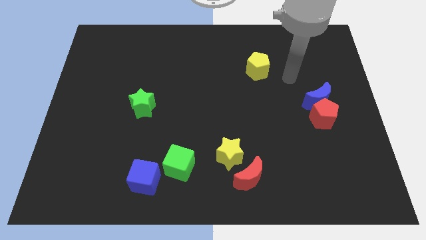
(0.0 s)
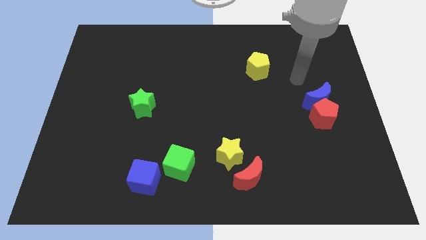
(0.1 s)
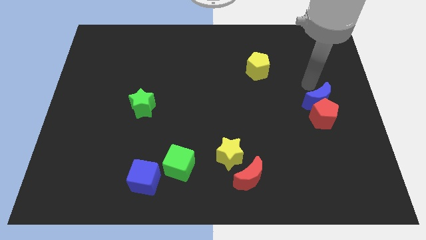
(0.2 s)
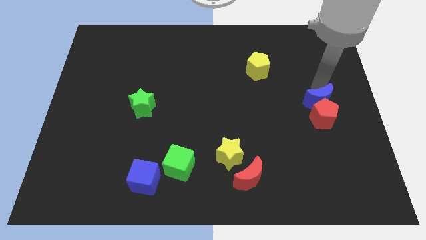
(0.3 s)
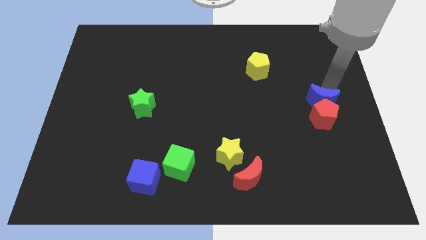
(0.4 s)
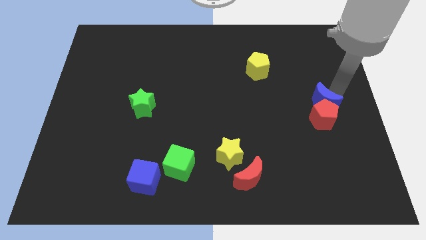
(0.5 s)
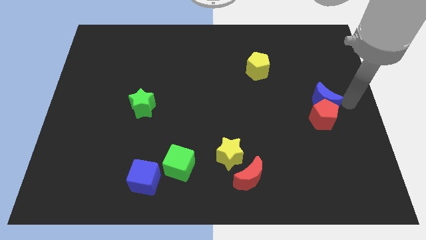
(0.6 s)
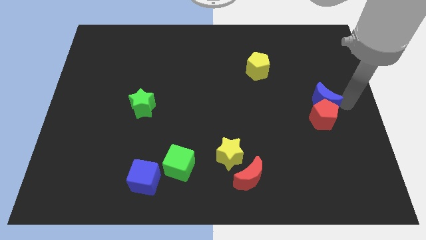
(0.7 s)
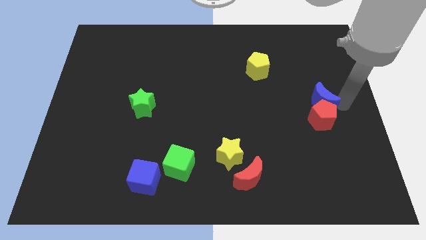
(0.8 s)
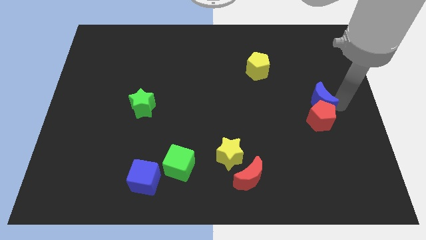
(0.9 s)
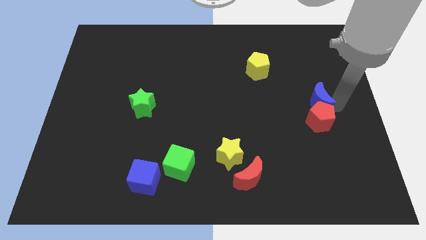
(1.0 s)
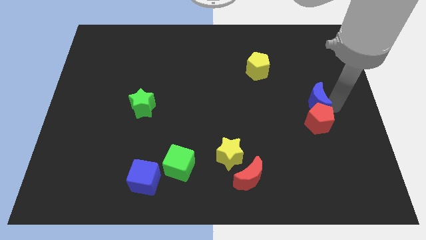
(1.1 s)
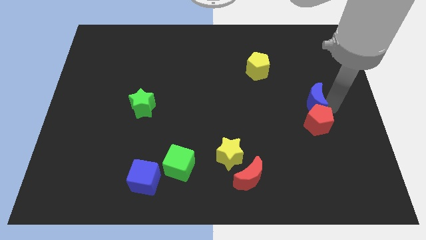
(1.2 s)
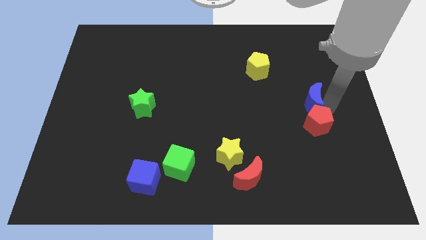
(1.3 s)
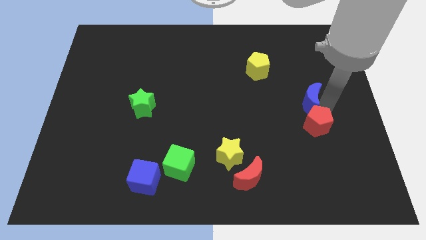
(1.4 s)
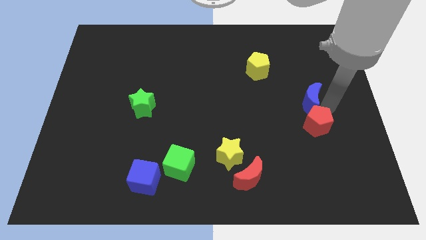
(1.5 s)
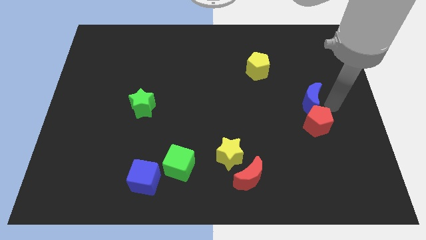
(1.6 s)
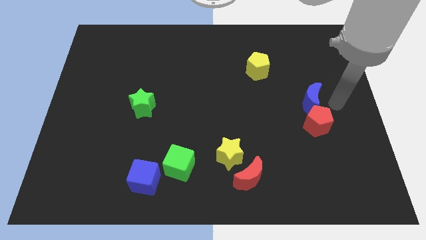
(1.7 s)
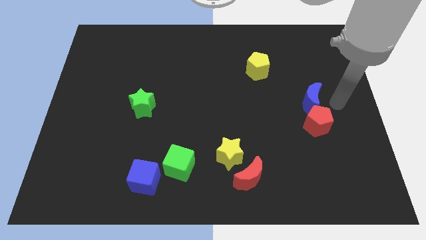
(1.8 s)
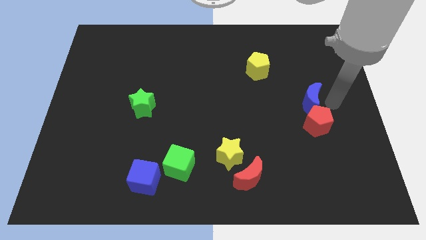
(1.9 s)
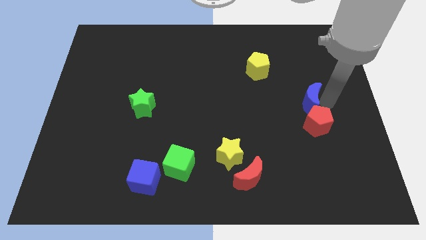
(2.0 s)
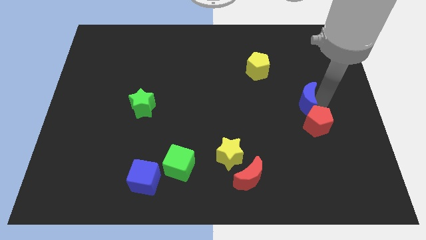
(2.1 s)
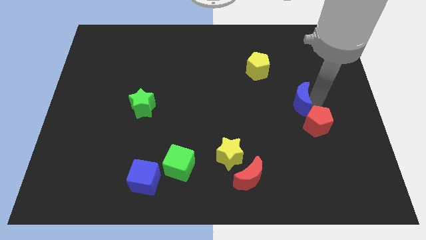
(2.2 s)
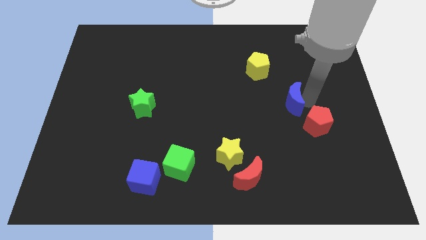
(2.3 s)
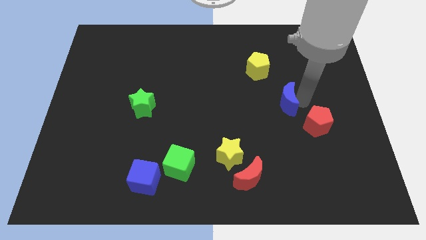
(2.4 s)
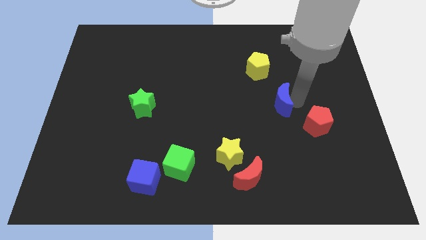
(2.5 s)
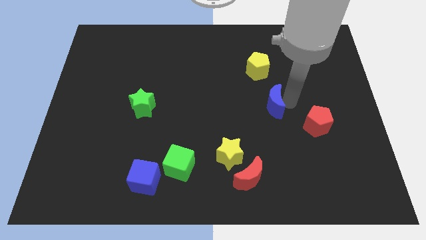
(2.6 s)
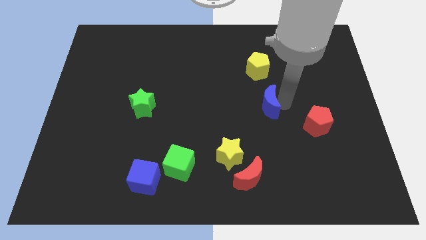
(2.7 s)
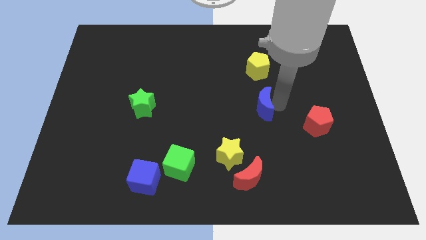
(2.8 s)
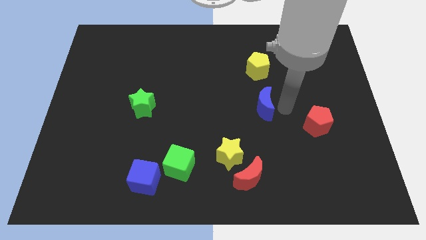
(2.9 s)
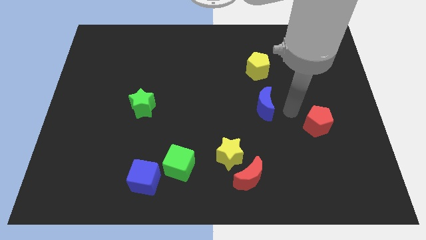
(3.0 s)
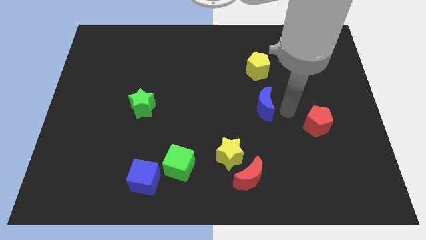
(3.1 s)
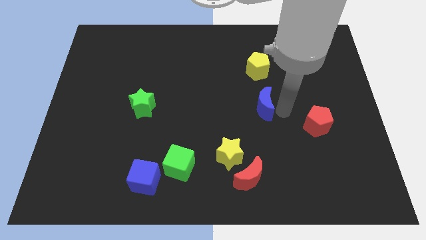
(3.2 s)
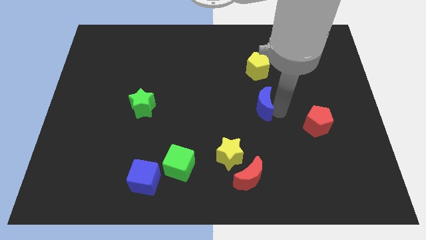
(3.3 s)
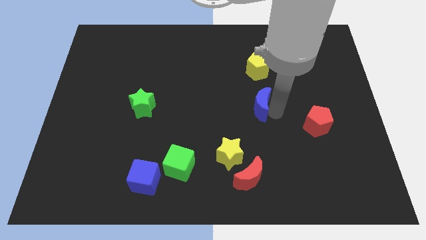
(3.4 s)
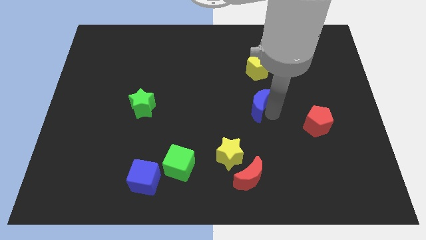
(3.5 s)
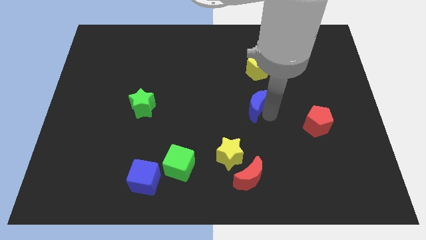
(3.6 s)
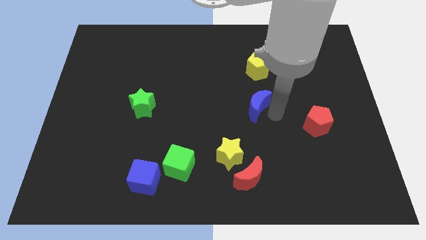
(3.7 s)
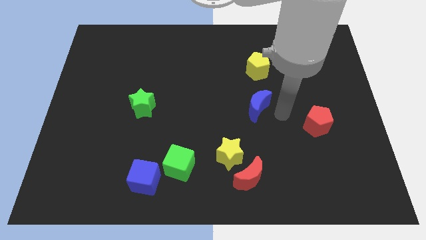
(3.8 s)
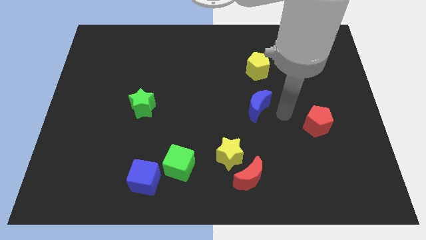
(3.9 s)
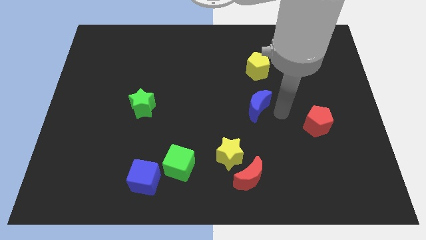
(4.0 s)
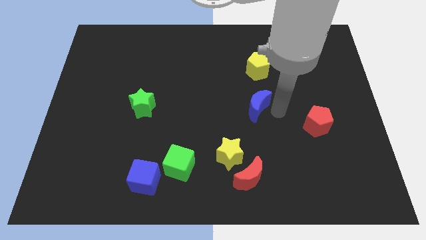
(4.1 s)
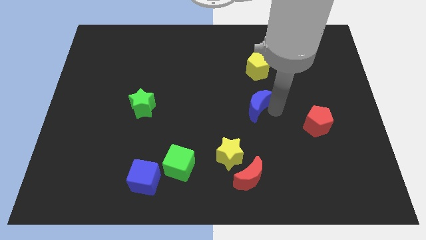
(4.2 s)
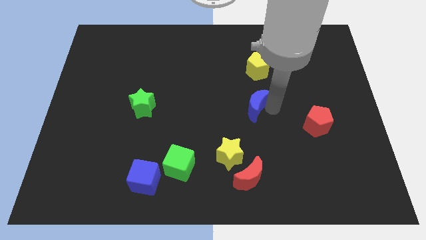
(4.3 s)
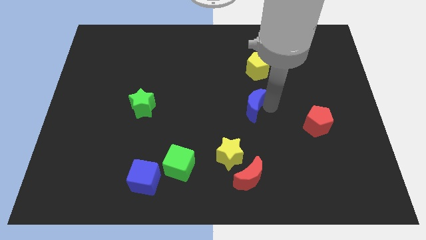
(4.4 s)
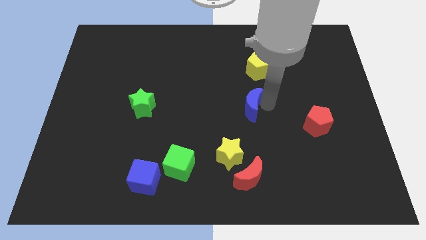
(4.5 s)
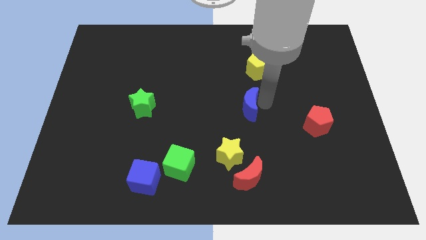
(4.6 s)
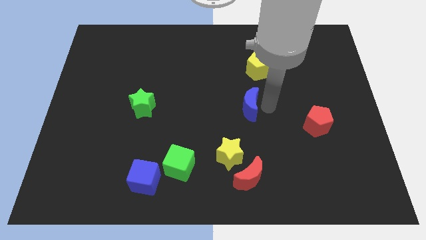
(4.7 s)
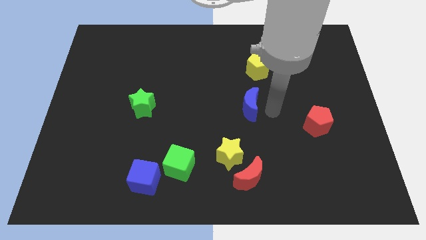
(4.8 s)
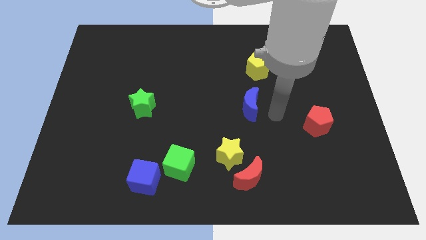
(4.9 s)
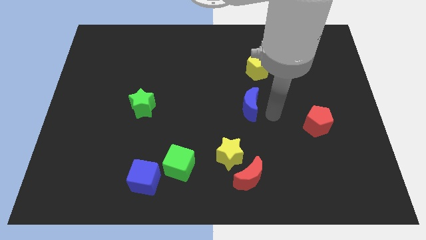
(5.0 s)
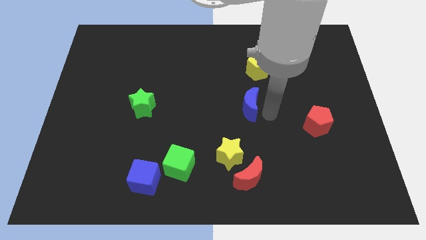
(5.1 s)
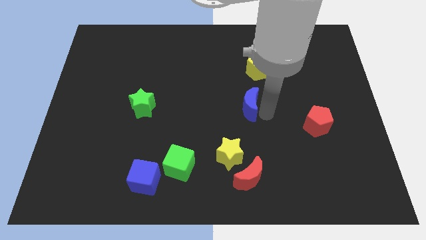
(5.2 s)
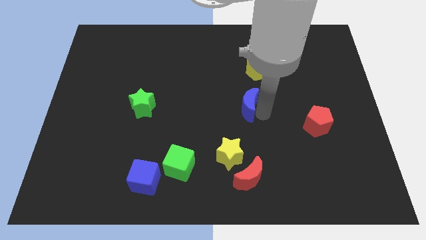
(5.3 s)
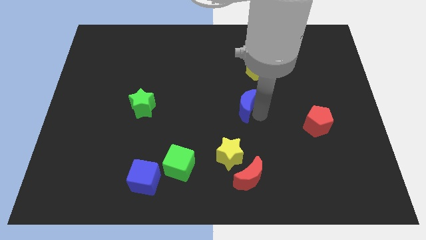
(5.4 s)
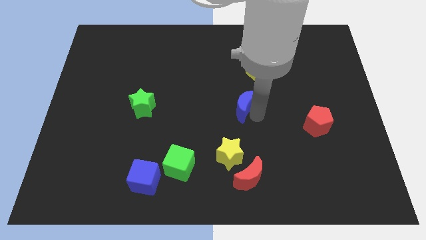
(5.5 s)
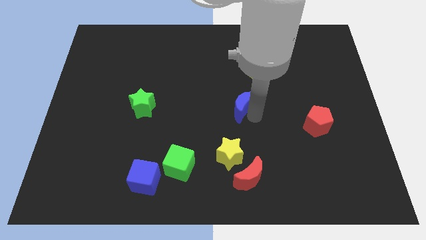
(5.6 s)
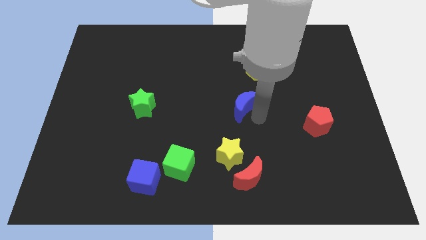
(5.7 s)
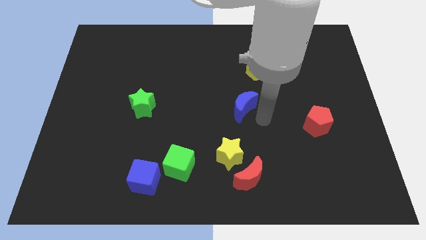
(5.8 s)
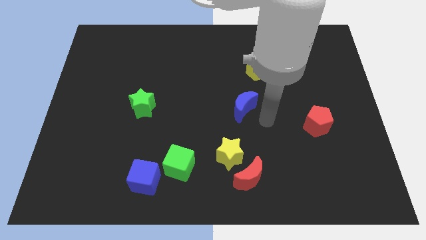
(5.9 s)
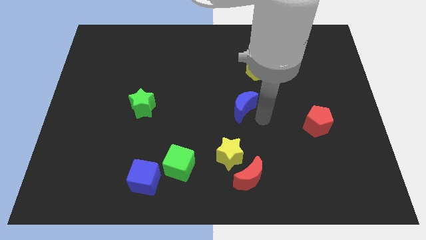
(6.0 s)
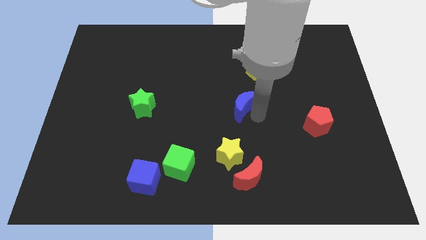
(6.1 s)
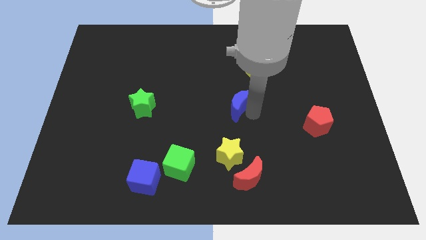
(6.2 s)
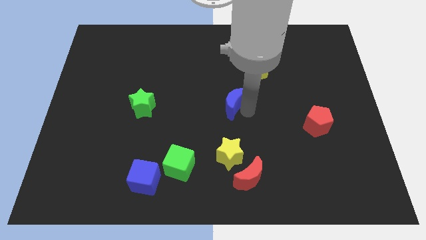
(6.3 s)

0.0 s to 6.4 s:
push the blue moon to the left

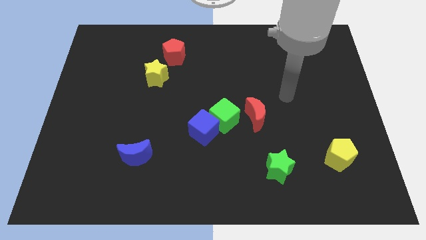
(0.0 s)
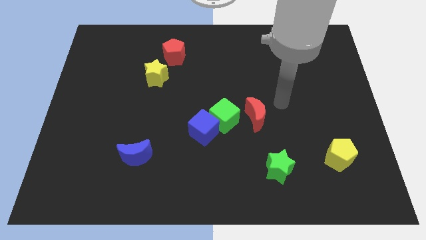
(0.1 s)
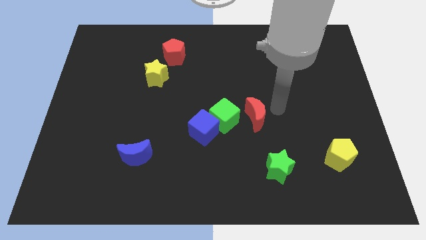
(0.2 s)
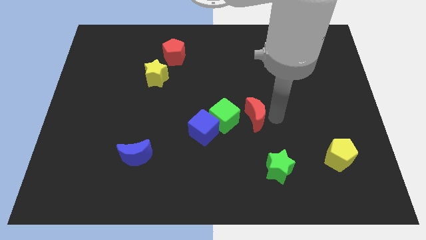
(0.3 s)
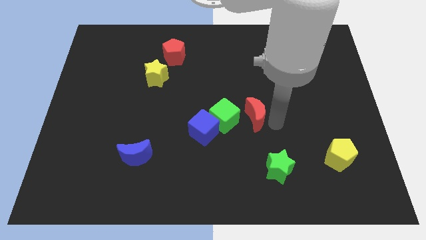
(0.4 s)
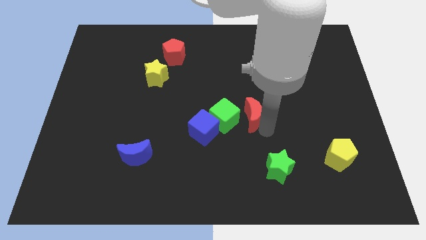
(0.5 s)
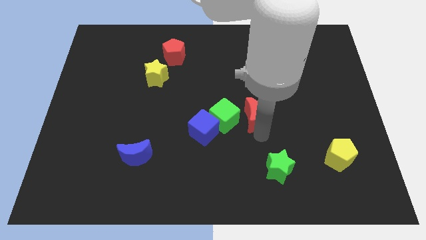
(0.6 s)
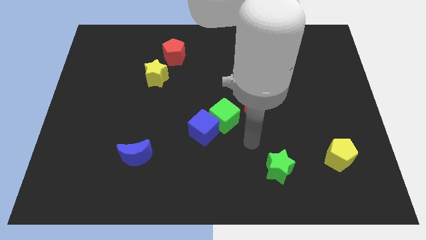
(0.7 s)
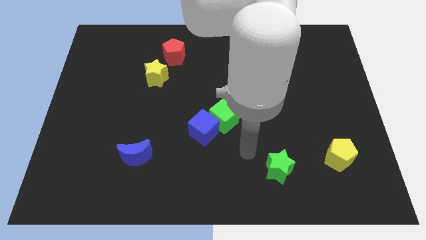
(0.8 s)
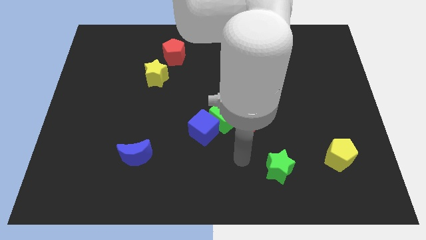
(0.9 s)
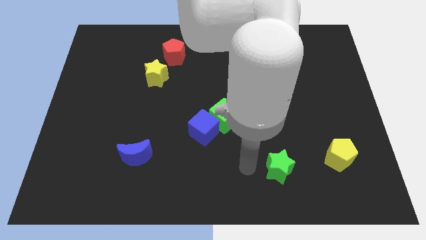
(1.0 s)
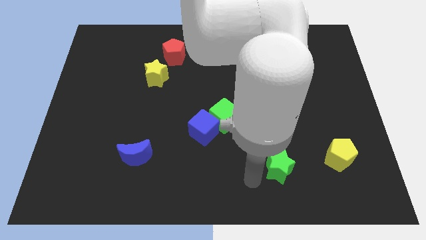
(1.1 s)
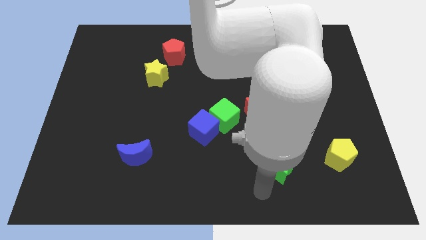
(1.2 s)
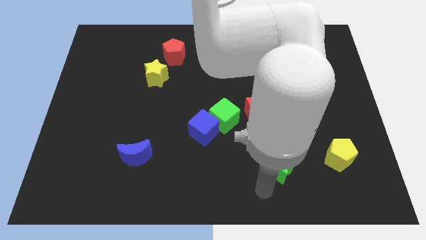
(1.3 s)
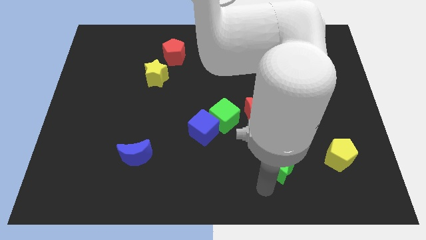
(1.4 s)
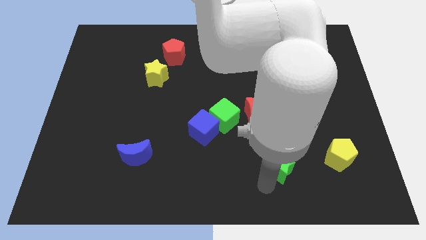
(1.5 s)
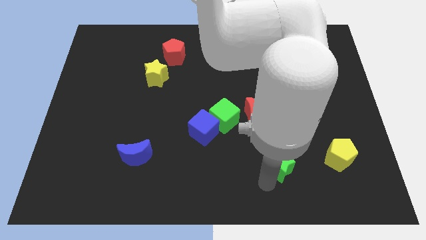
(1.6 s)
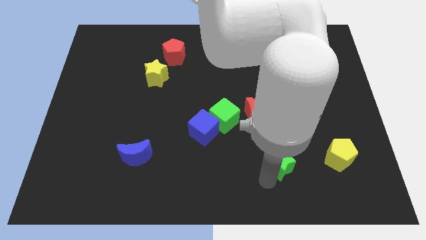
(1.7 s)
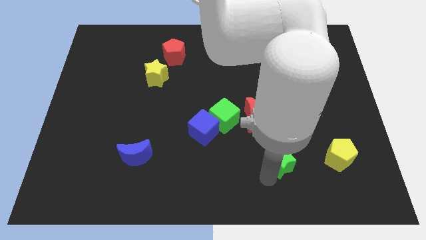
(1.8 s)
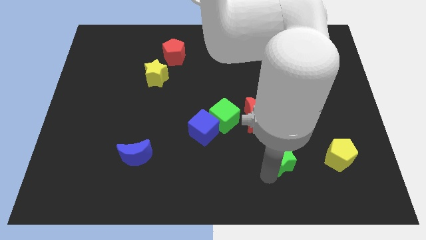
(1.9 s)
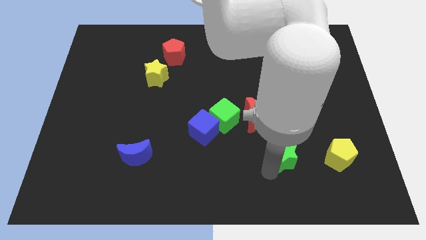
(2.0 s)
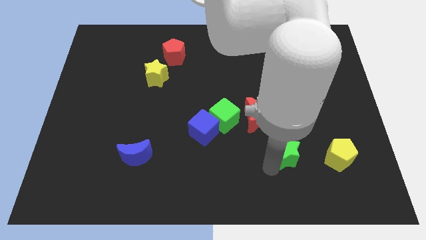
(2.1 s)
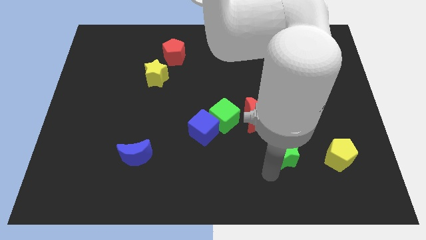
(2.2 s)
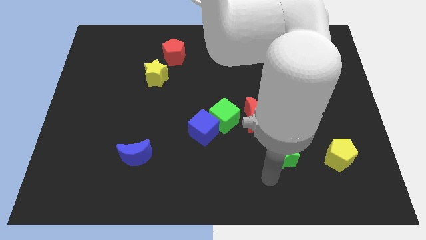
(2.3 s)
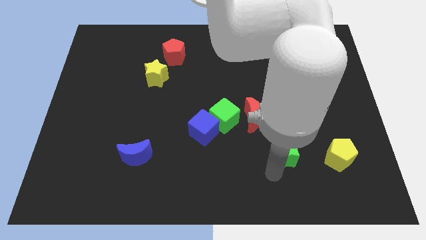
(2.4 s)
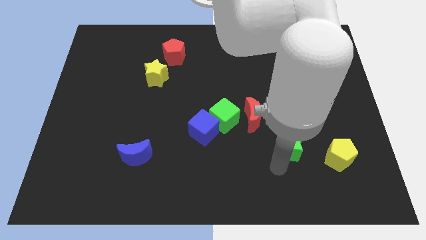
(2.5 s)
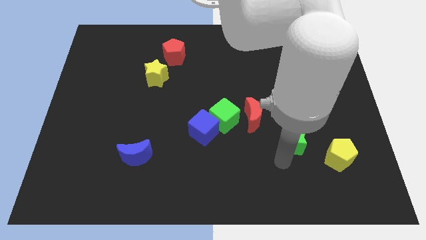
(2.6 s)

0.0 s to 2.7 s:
slide the green star up and then right a little bit
